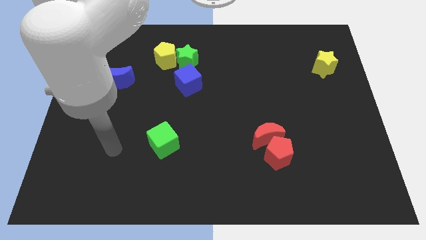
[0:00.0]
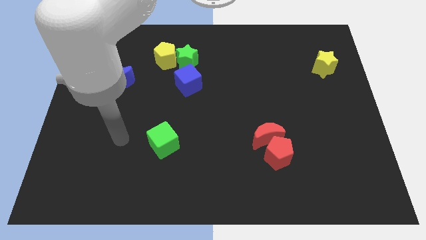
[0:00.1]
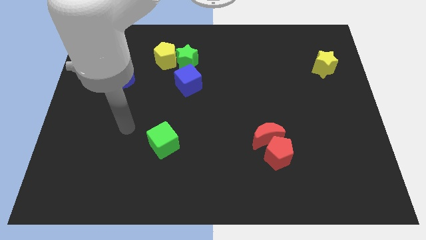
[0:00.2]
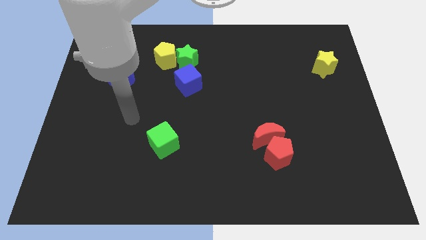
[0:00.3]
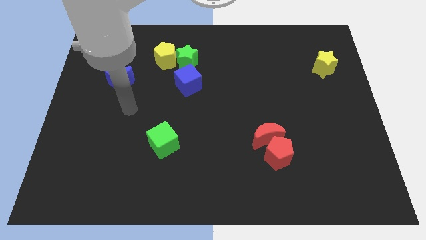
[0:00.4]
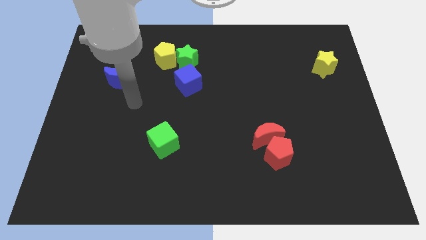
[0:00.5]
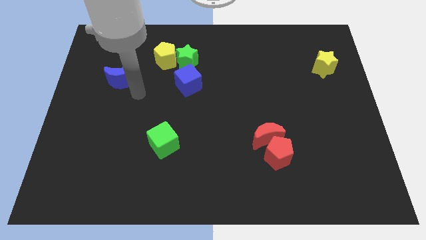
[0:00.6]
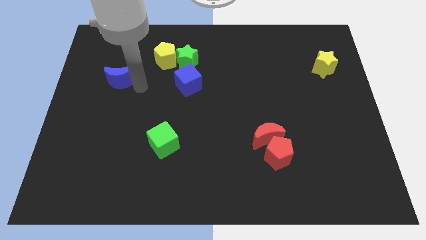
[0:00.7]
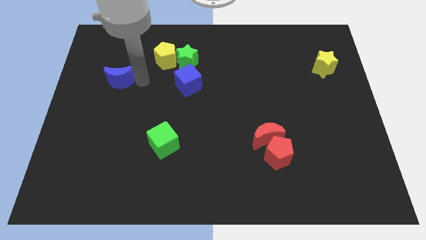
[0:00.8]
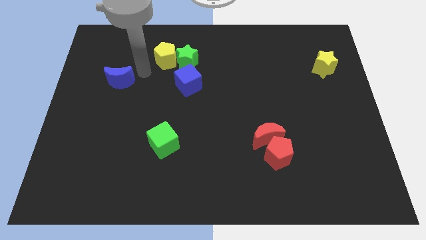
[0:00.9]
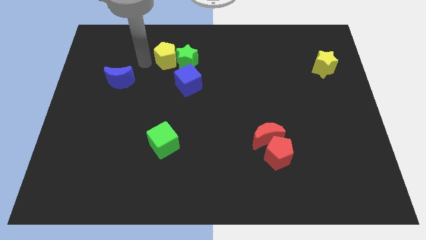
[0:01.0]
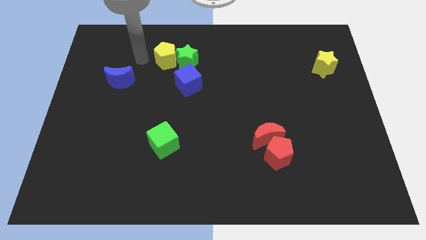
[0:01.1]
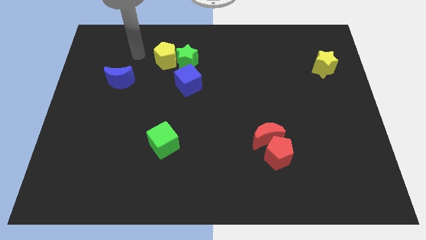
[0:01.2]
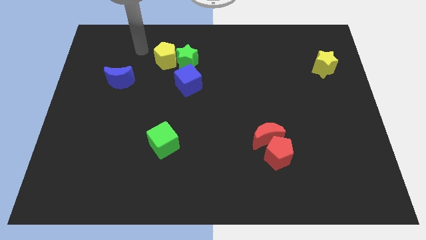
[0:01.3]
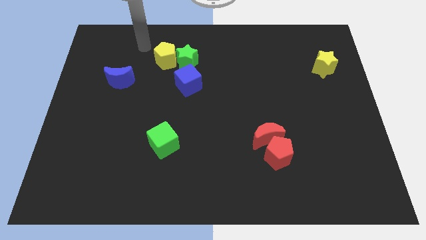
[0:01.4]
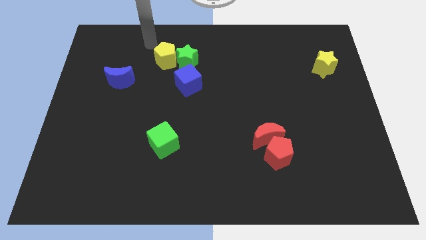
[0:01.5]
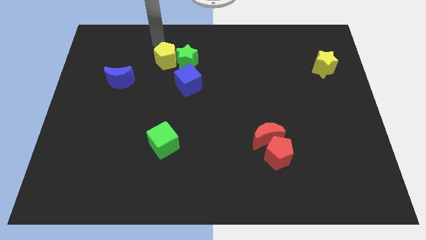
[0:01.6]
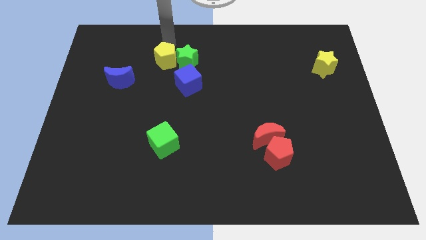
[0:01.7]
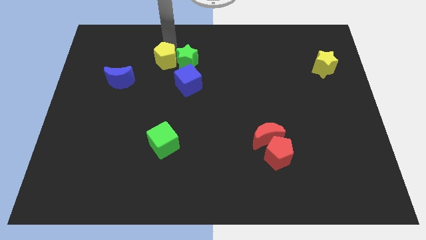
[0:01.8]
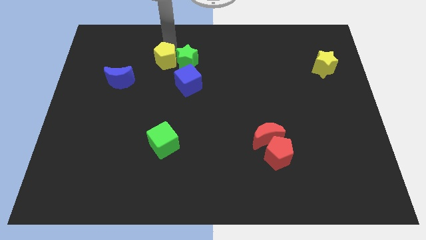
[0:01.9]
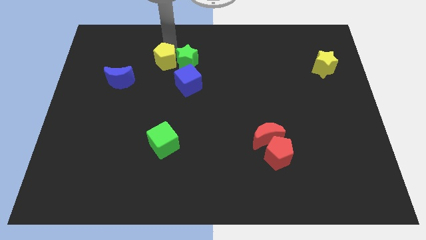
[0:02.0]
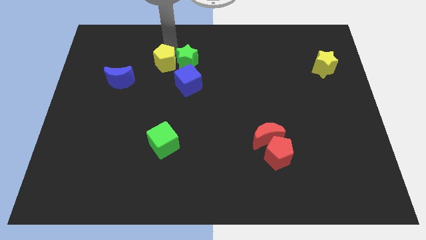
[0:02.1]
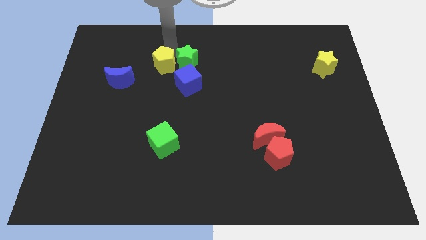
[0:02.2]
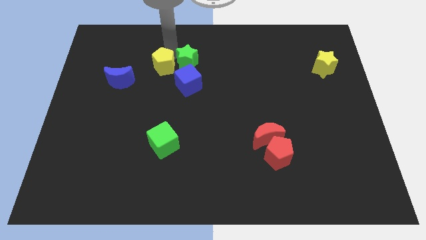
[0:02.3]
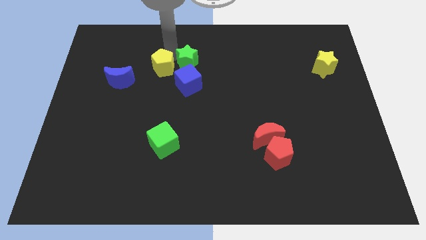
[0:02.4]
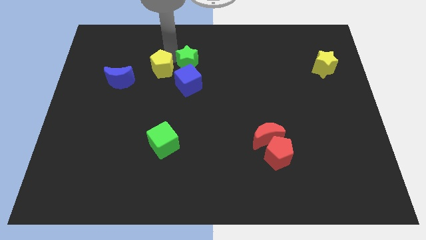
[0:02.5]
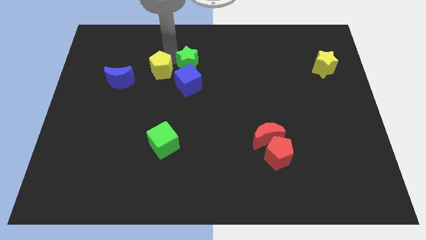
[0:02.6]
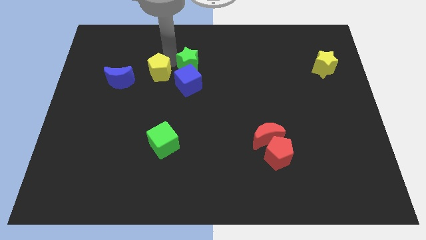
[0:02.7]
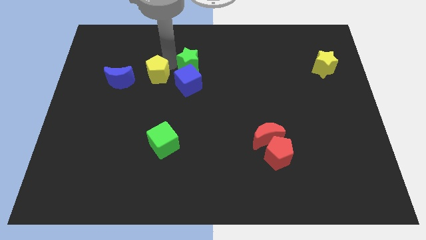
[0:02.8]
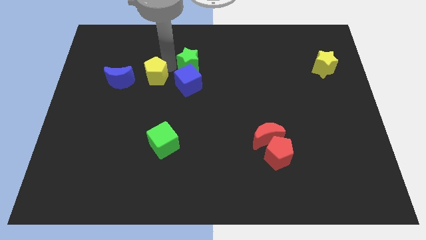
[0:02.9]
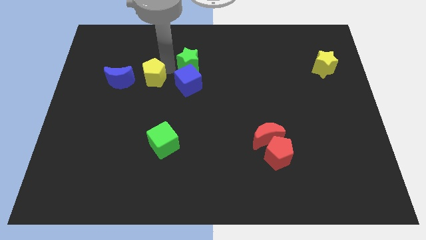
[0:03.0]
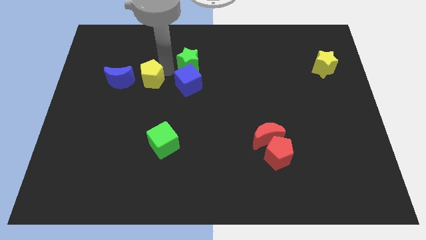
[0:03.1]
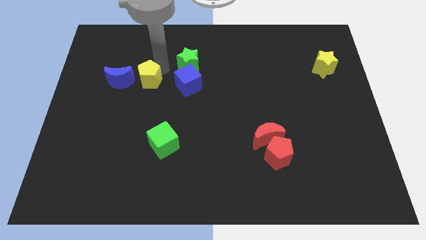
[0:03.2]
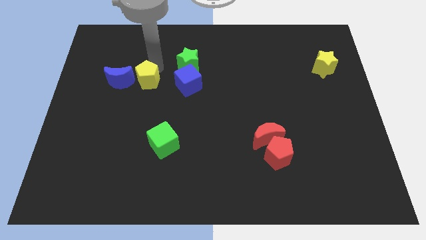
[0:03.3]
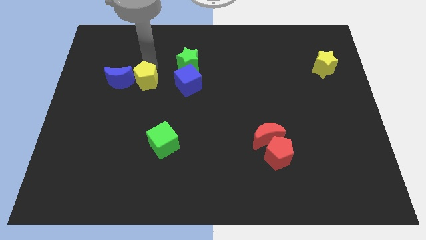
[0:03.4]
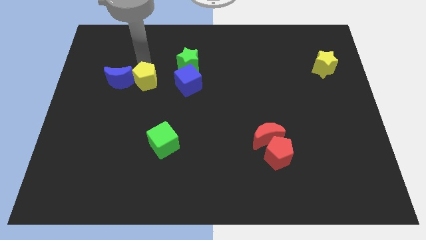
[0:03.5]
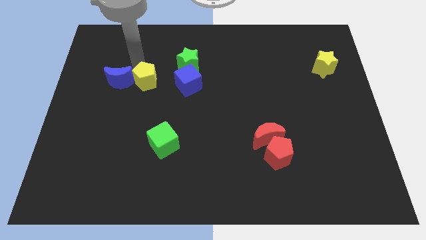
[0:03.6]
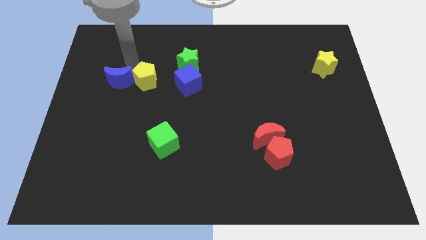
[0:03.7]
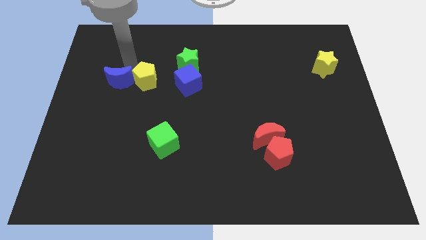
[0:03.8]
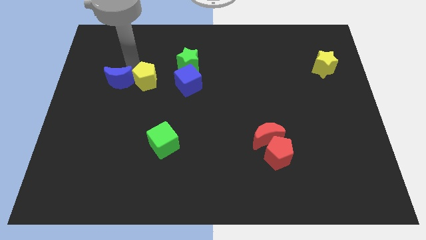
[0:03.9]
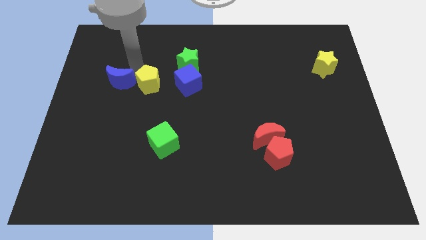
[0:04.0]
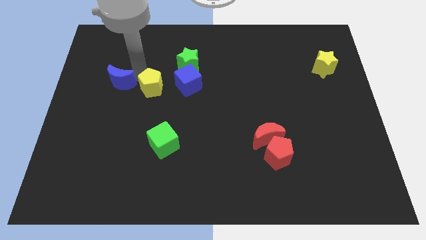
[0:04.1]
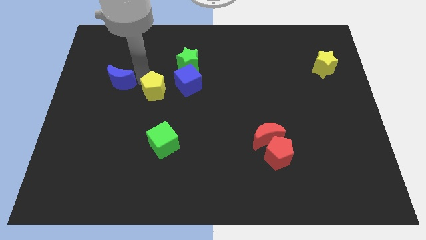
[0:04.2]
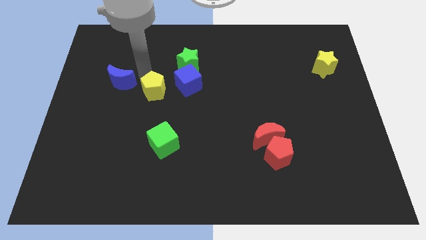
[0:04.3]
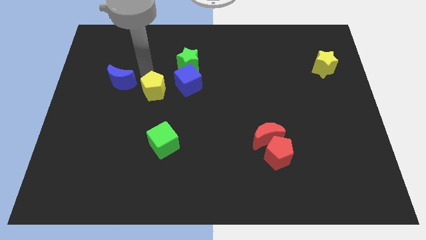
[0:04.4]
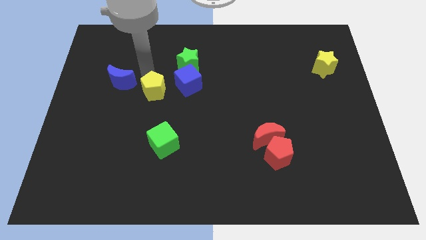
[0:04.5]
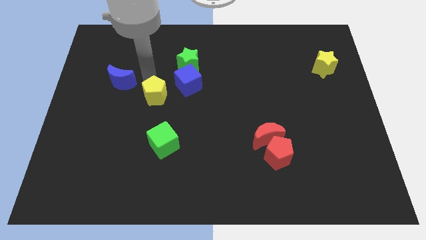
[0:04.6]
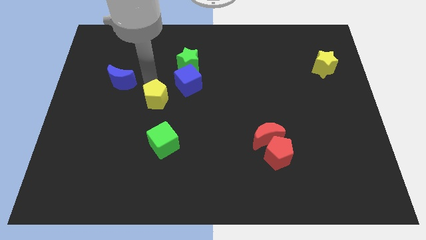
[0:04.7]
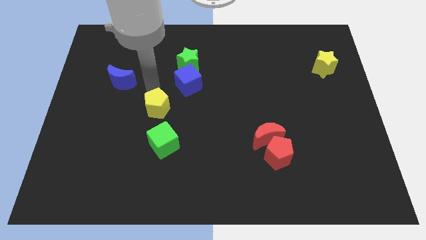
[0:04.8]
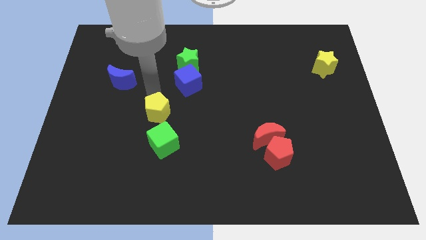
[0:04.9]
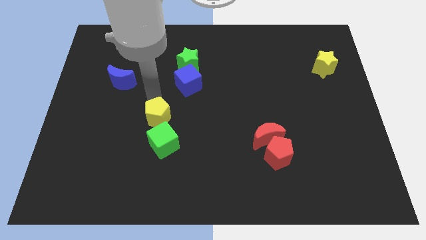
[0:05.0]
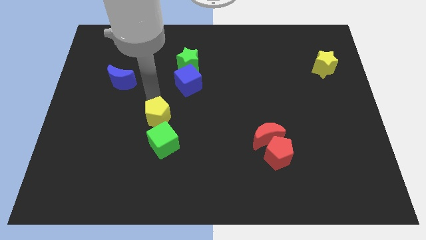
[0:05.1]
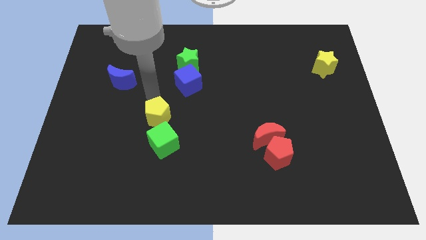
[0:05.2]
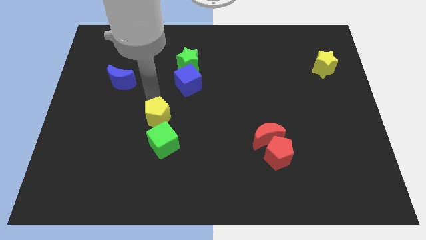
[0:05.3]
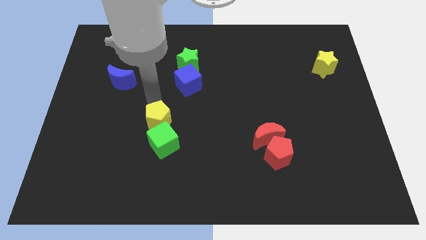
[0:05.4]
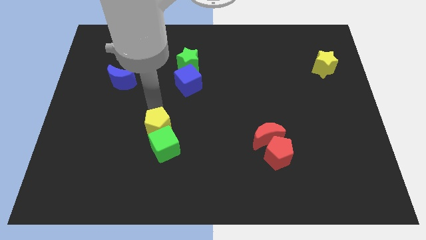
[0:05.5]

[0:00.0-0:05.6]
move the yellow pentagon towards the green cube

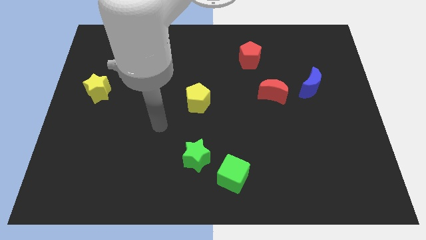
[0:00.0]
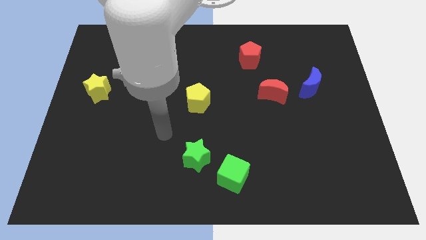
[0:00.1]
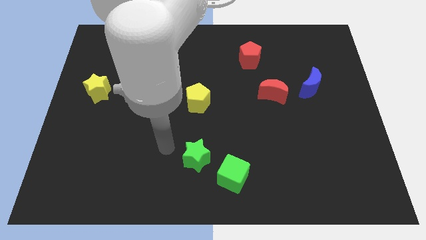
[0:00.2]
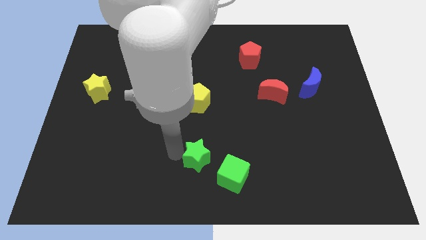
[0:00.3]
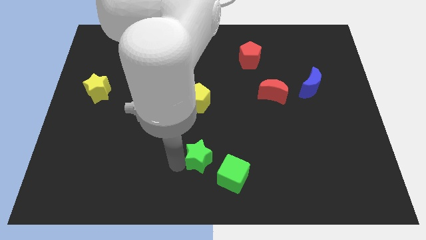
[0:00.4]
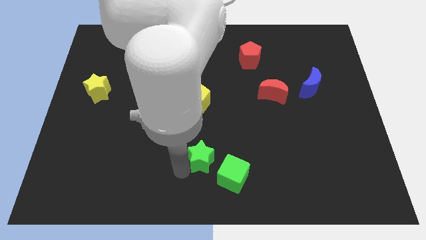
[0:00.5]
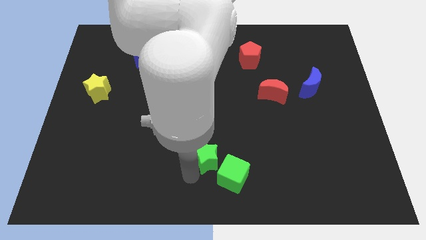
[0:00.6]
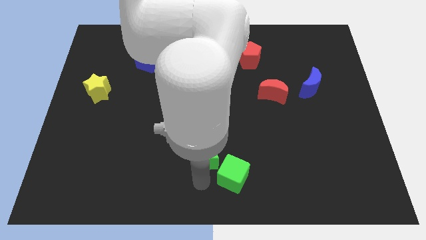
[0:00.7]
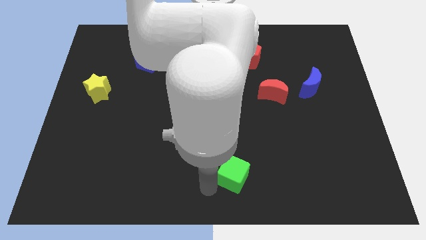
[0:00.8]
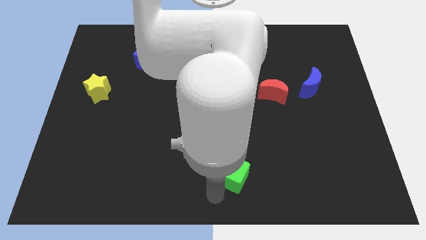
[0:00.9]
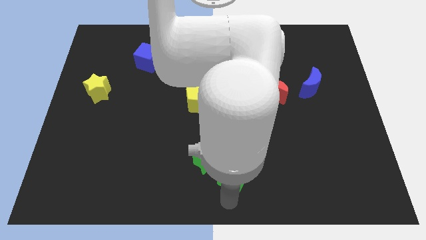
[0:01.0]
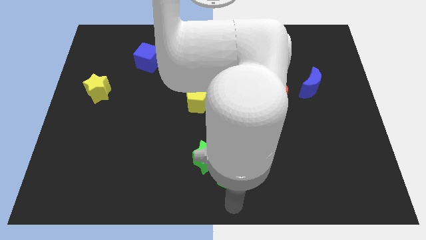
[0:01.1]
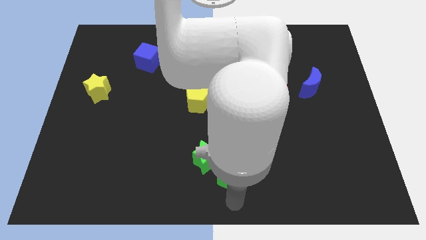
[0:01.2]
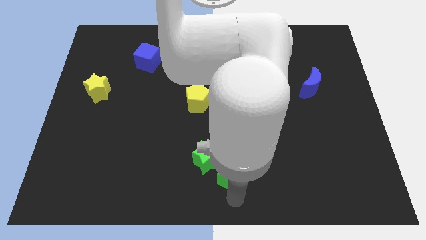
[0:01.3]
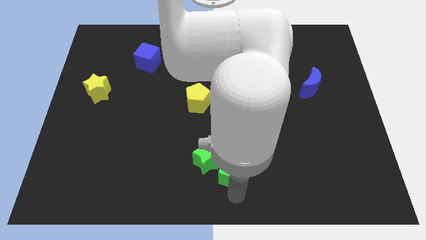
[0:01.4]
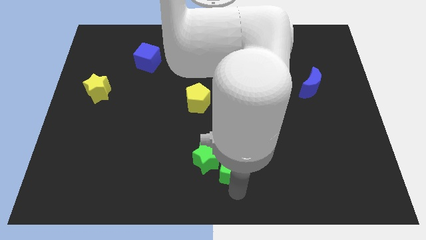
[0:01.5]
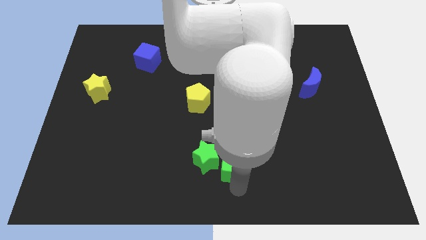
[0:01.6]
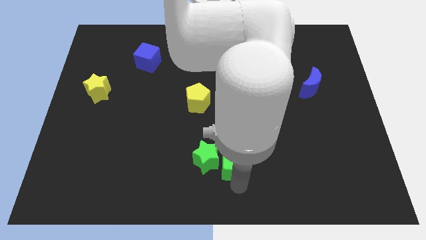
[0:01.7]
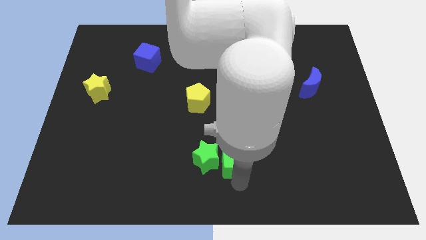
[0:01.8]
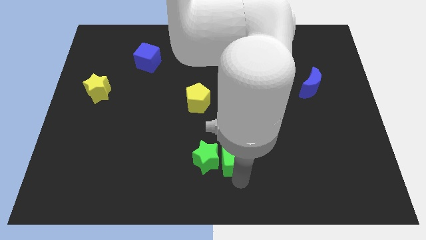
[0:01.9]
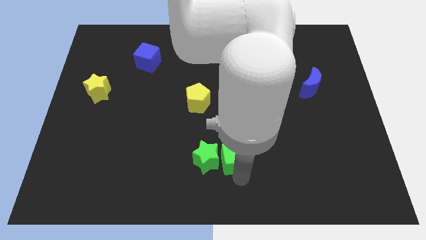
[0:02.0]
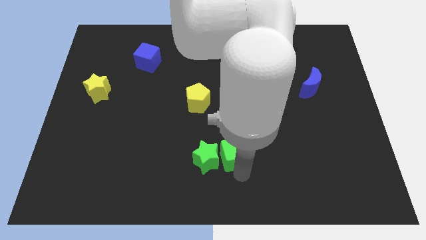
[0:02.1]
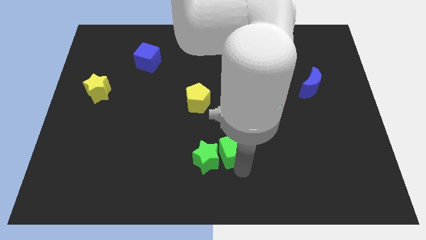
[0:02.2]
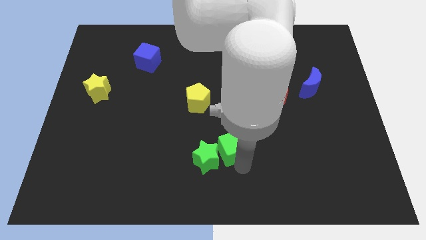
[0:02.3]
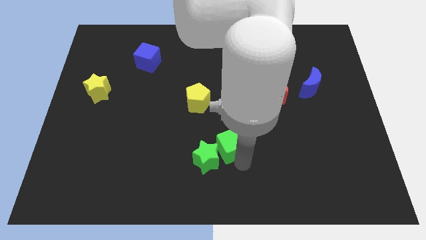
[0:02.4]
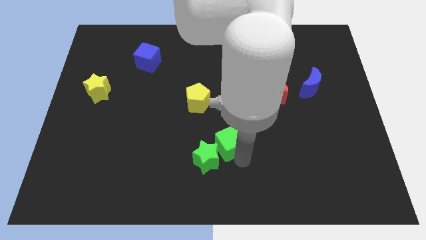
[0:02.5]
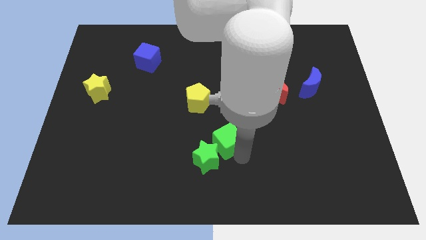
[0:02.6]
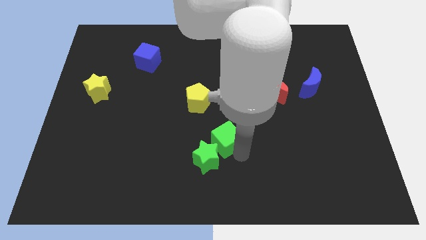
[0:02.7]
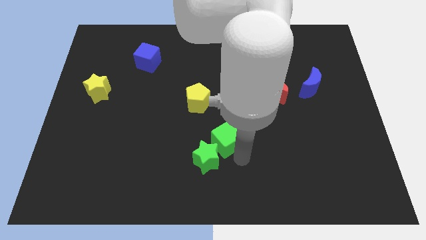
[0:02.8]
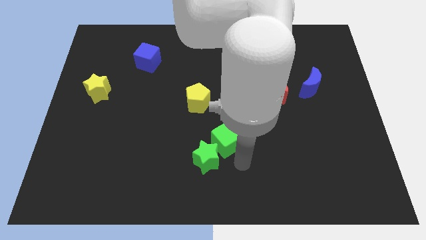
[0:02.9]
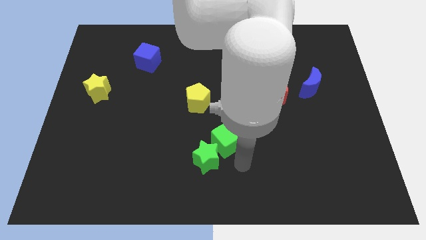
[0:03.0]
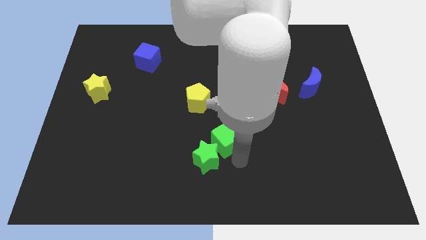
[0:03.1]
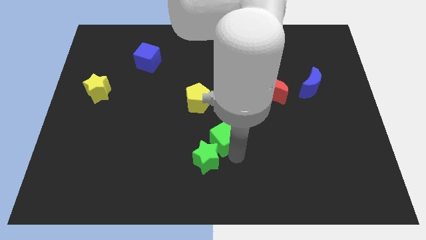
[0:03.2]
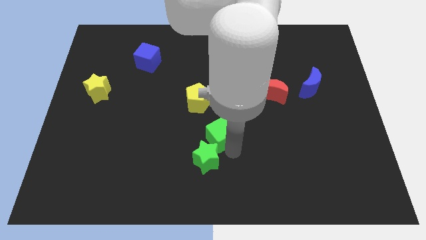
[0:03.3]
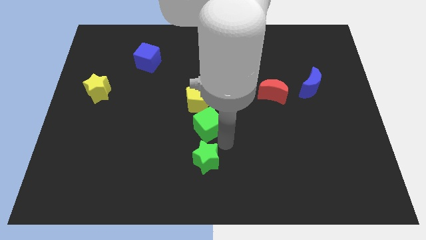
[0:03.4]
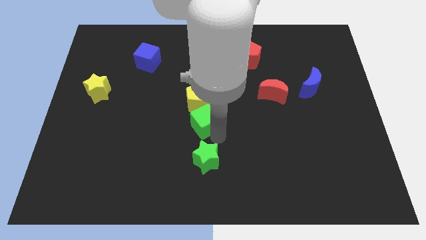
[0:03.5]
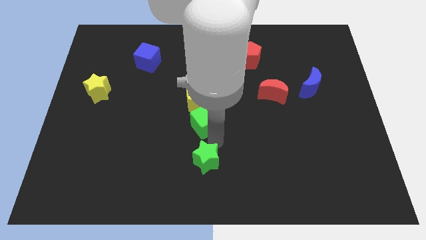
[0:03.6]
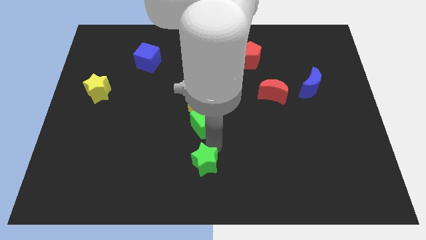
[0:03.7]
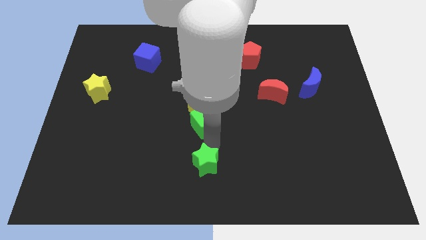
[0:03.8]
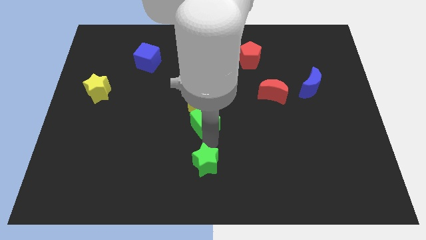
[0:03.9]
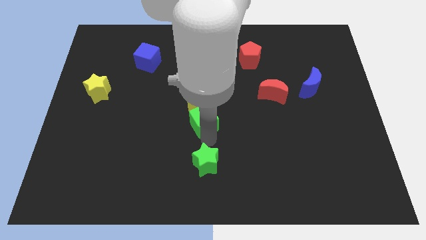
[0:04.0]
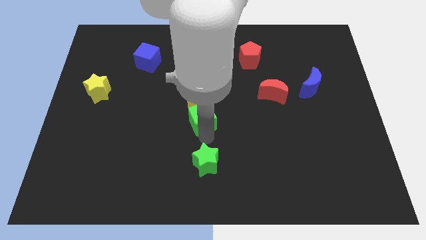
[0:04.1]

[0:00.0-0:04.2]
put the green cube next to the yellow pentagon
